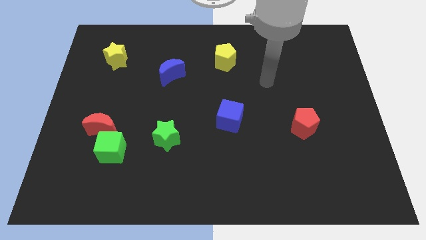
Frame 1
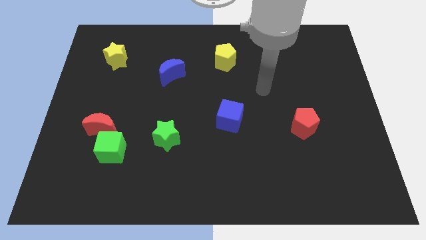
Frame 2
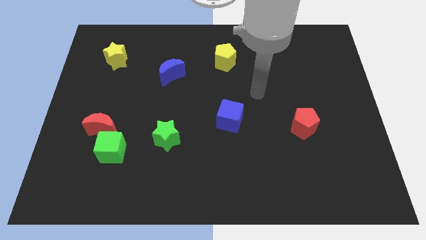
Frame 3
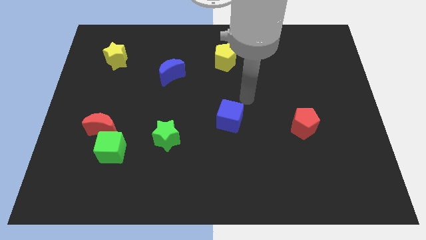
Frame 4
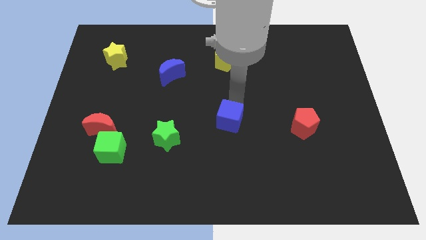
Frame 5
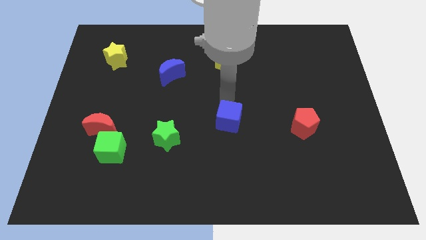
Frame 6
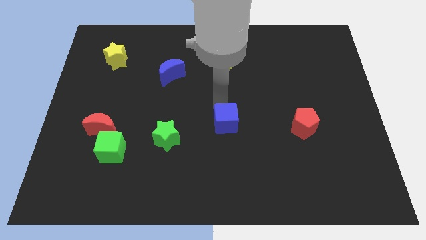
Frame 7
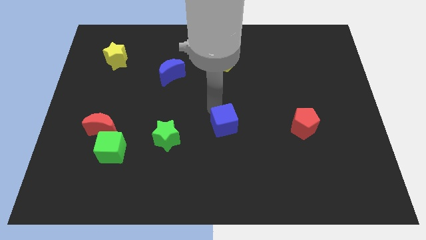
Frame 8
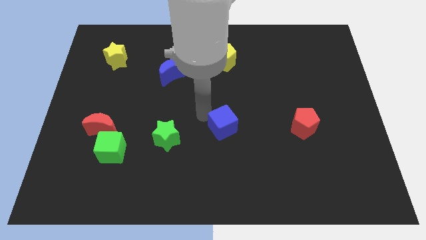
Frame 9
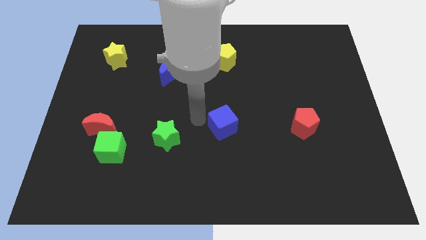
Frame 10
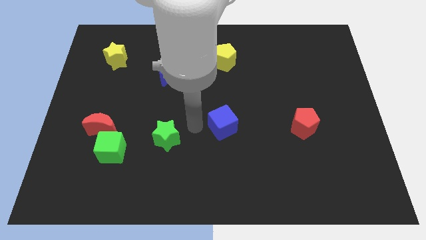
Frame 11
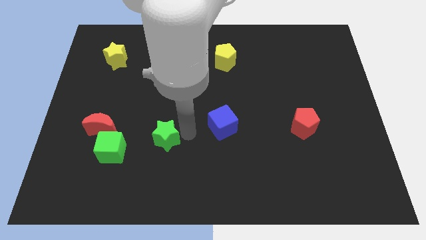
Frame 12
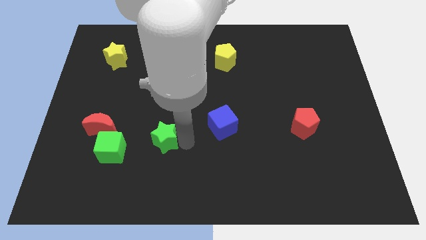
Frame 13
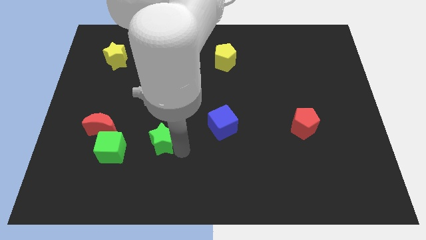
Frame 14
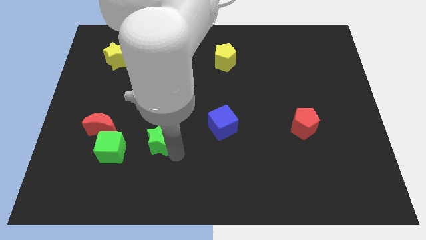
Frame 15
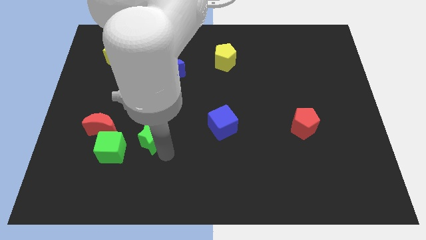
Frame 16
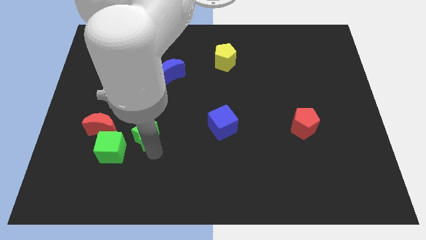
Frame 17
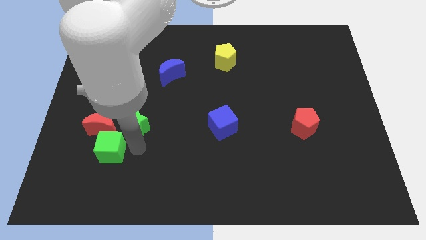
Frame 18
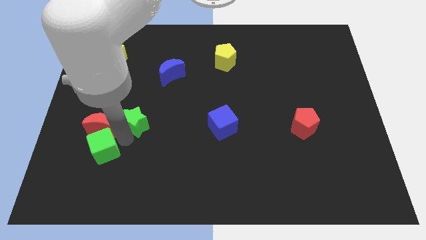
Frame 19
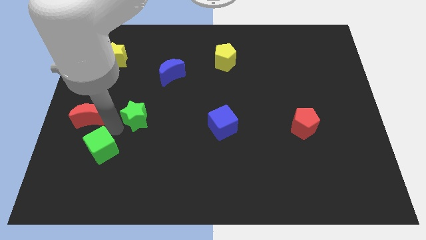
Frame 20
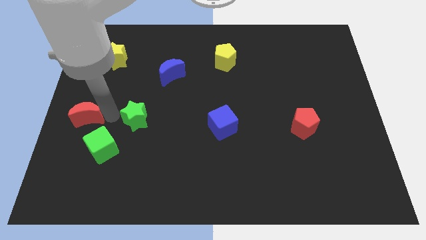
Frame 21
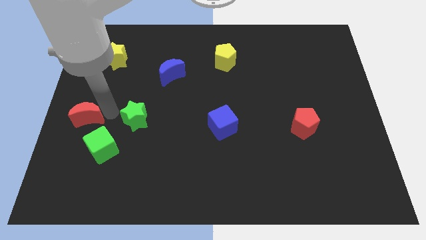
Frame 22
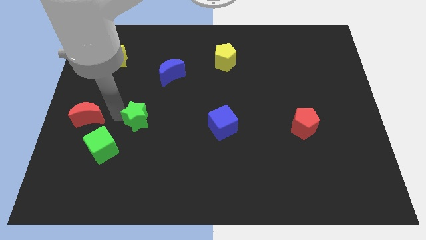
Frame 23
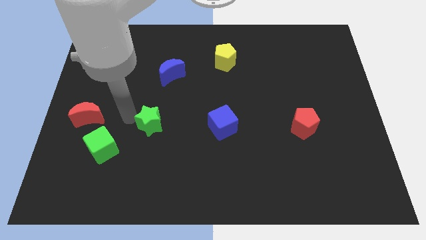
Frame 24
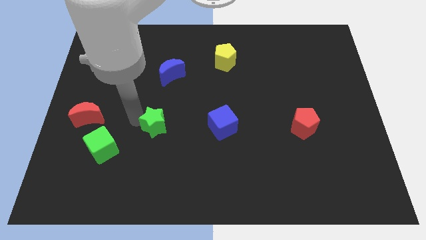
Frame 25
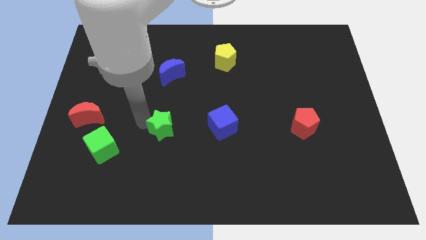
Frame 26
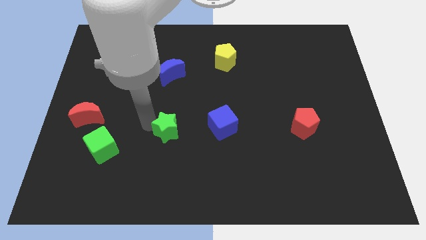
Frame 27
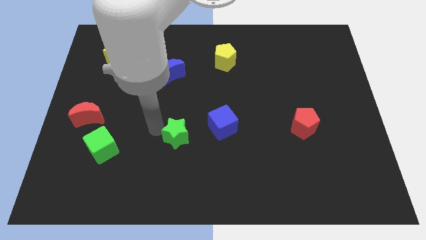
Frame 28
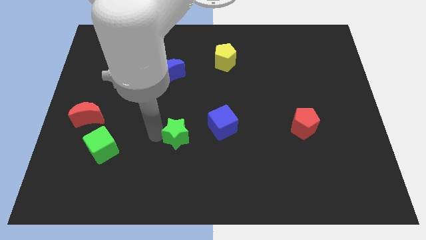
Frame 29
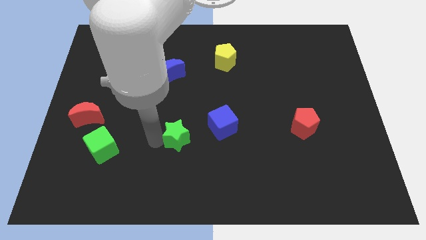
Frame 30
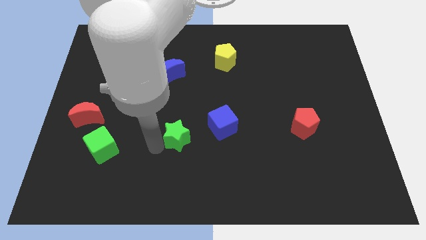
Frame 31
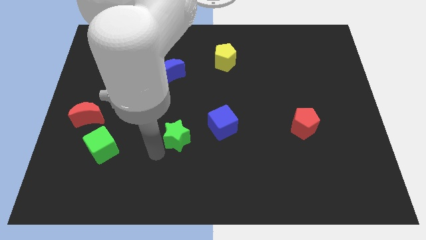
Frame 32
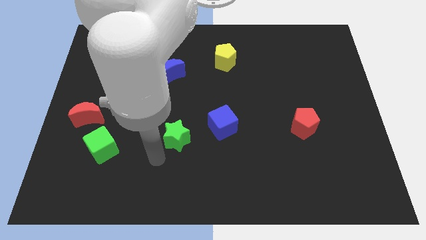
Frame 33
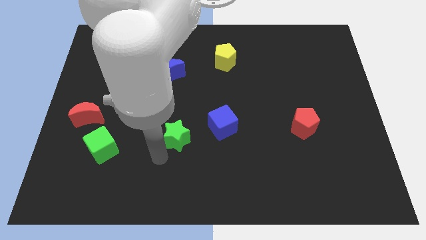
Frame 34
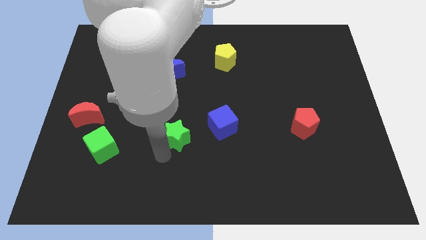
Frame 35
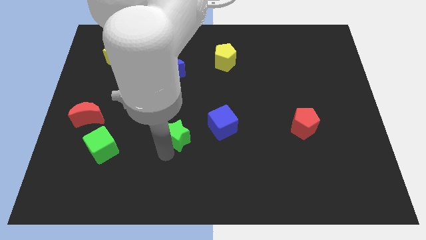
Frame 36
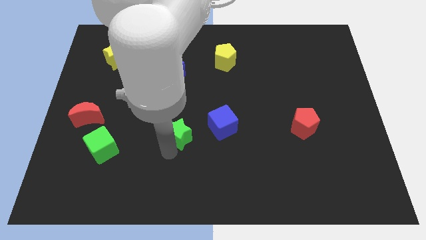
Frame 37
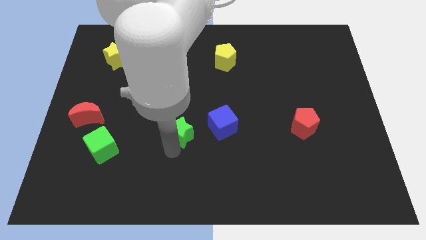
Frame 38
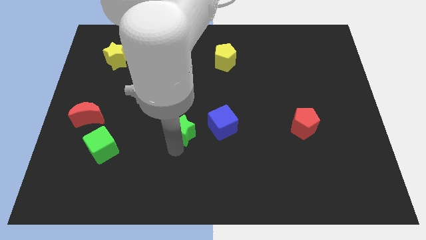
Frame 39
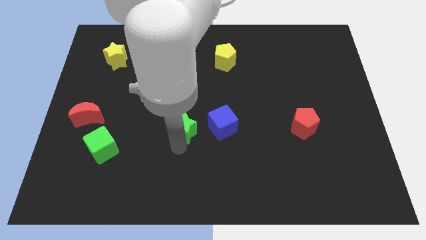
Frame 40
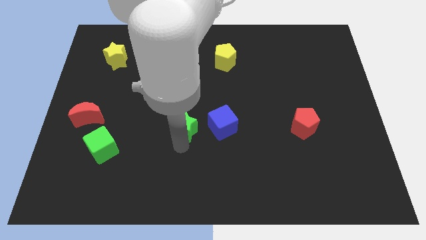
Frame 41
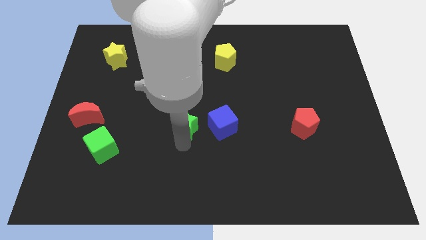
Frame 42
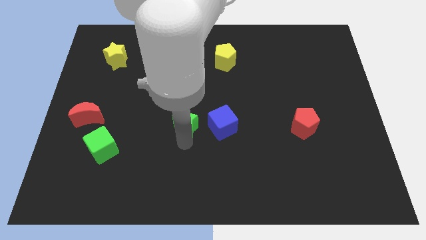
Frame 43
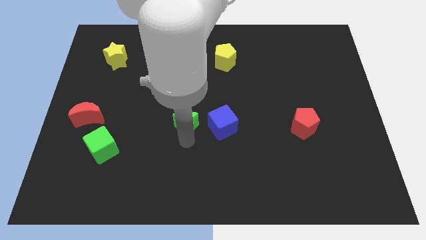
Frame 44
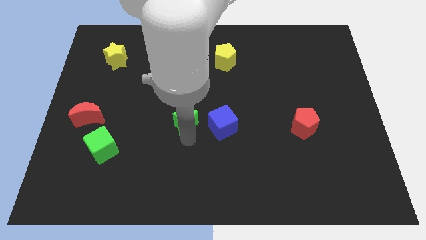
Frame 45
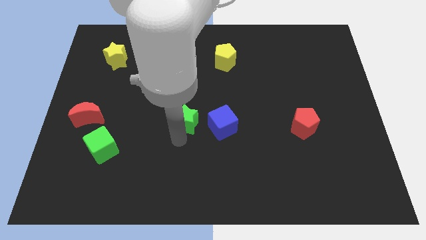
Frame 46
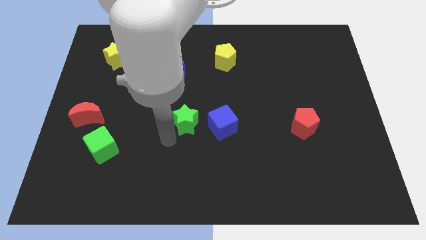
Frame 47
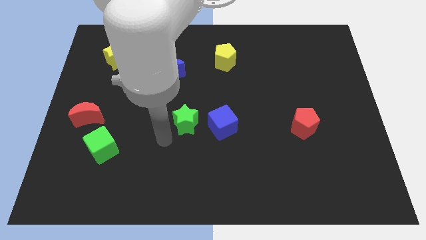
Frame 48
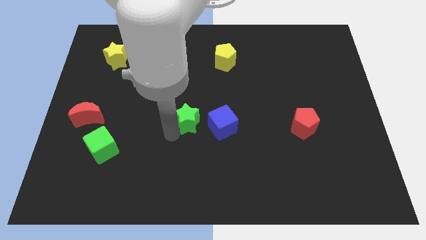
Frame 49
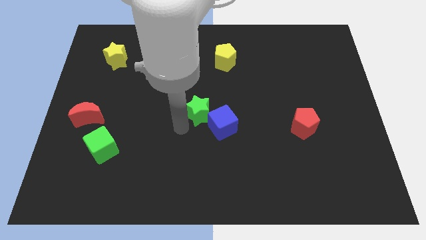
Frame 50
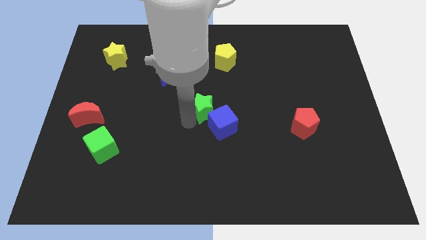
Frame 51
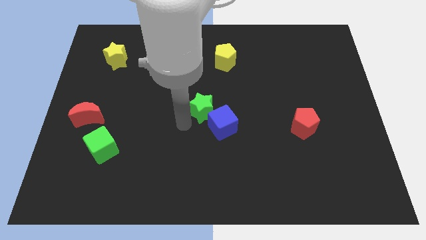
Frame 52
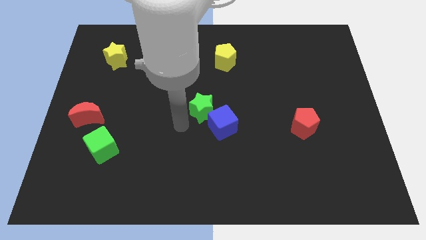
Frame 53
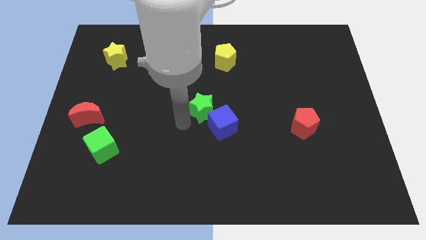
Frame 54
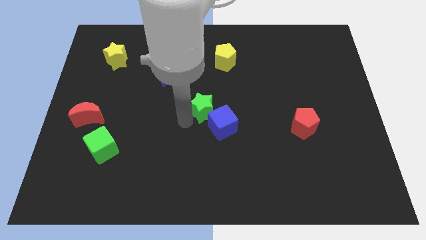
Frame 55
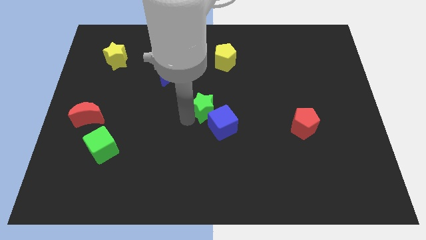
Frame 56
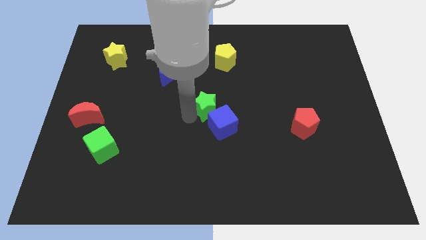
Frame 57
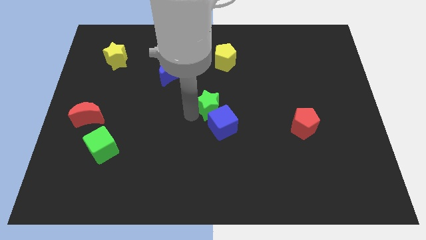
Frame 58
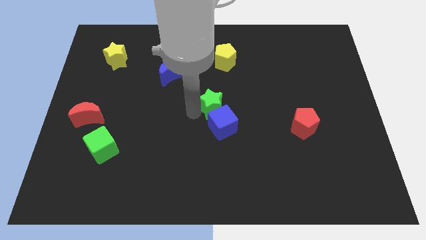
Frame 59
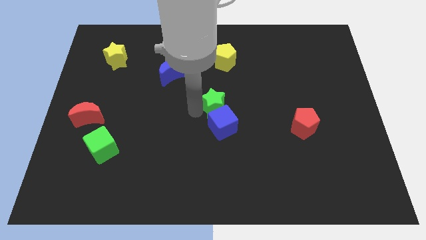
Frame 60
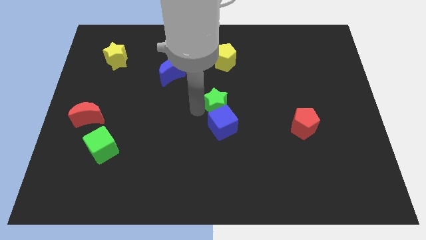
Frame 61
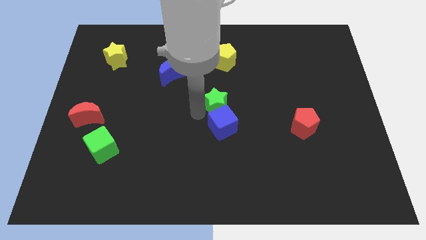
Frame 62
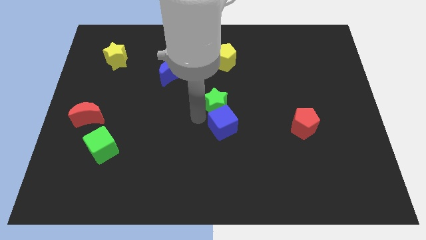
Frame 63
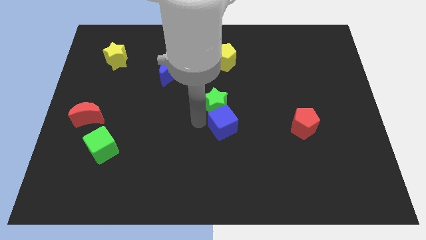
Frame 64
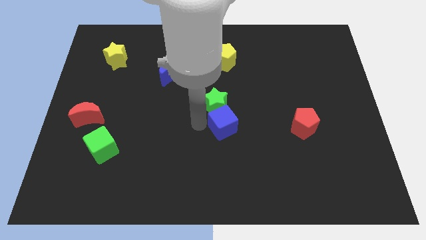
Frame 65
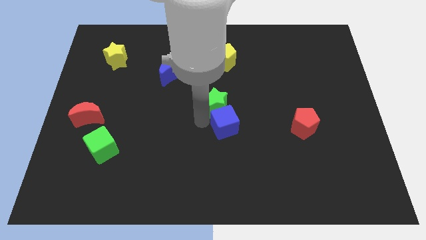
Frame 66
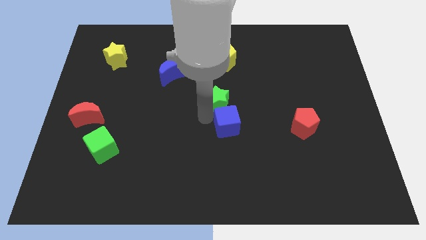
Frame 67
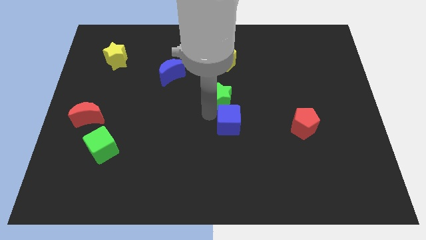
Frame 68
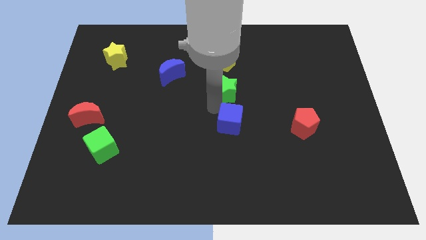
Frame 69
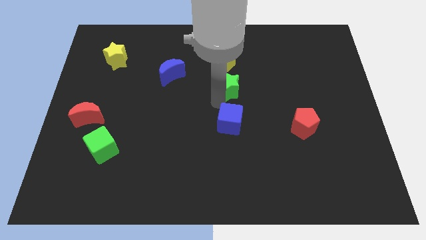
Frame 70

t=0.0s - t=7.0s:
move the green star diagonally upwards and right

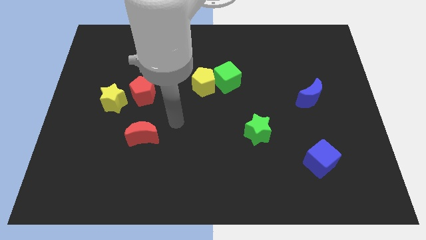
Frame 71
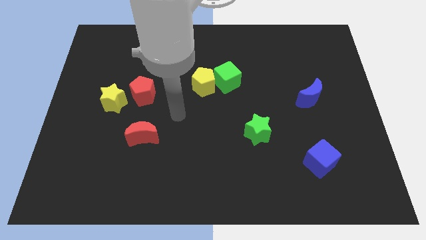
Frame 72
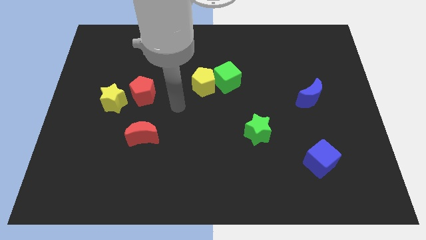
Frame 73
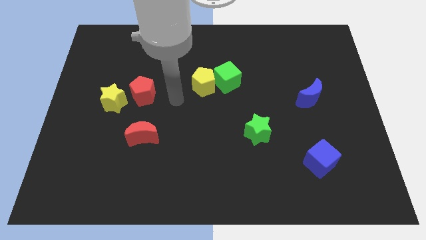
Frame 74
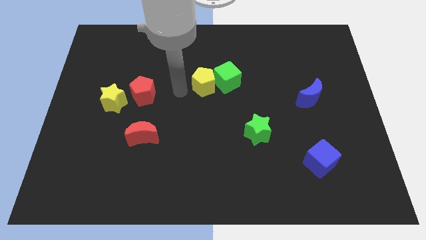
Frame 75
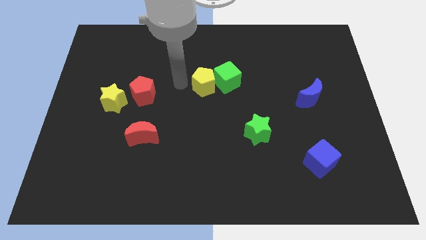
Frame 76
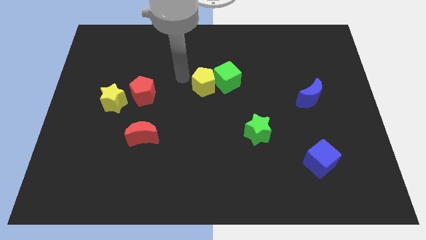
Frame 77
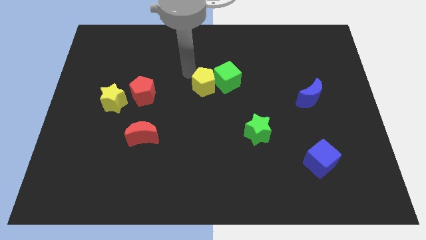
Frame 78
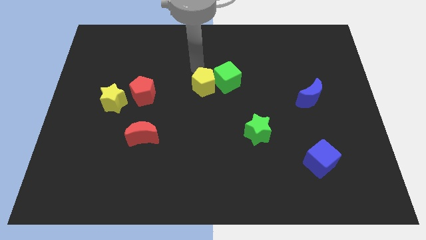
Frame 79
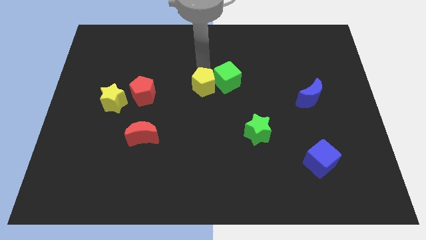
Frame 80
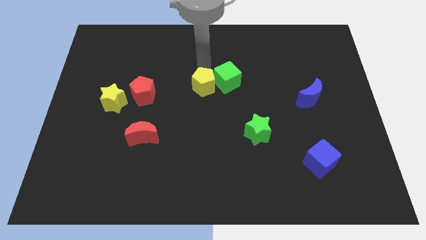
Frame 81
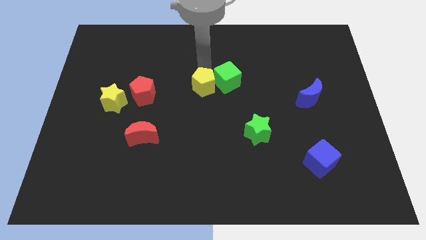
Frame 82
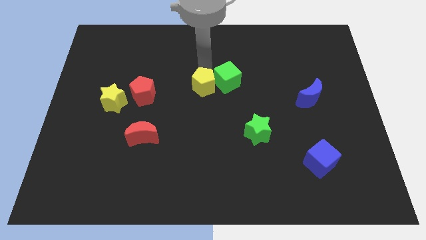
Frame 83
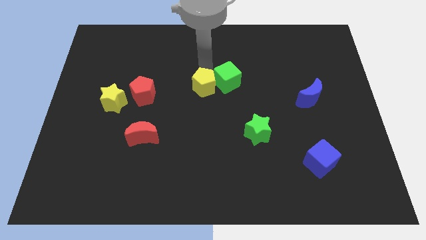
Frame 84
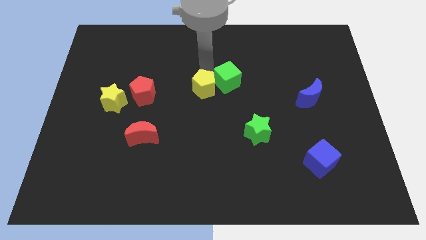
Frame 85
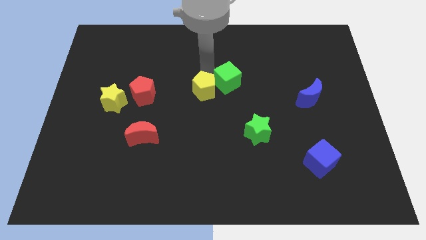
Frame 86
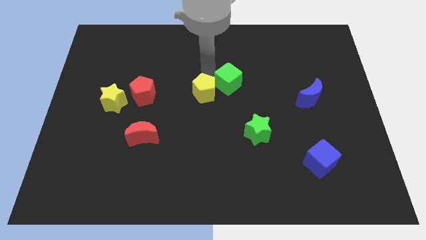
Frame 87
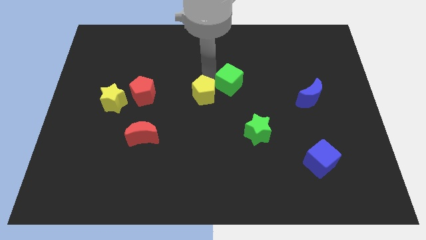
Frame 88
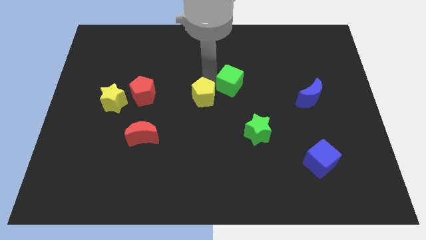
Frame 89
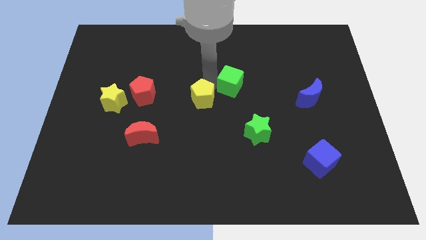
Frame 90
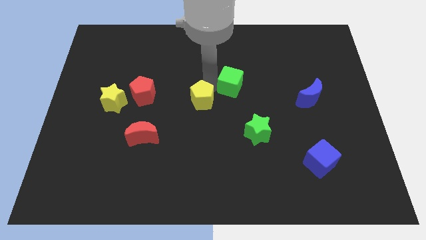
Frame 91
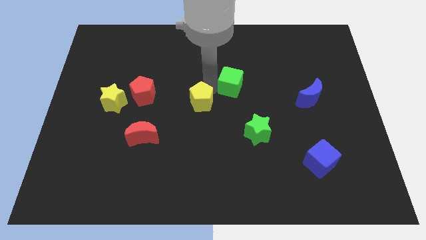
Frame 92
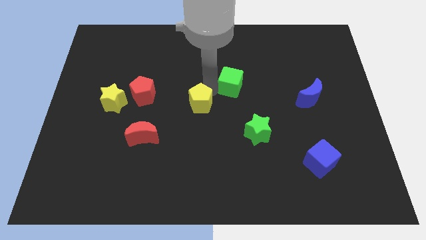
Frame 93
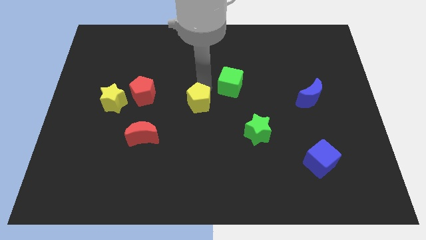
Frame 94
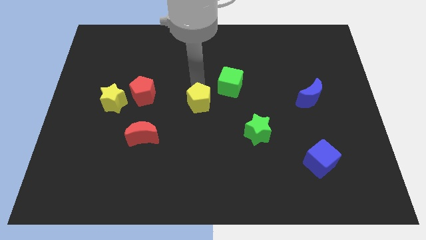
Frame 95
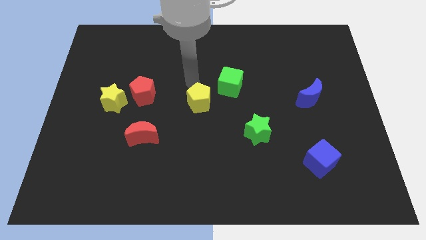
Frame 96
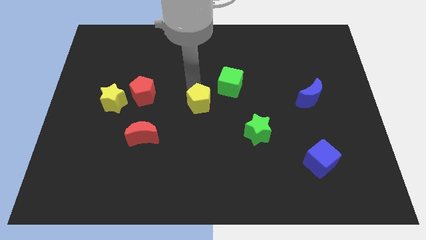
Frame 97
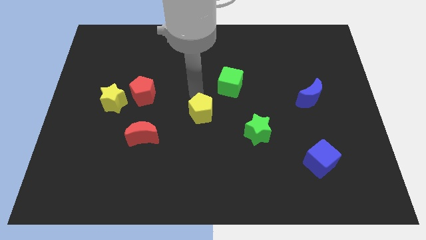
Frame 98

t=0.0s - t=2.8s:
slightly move the yellow pentagon down
